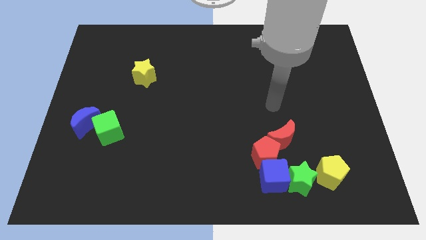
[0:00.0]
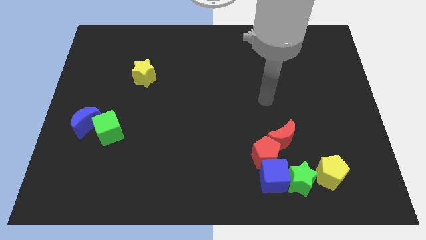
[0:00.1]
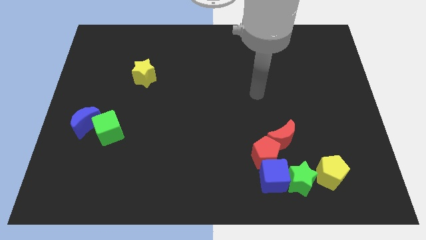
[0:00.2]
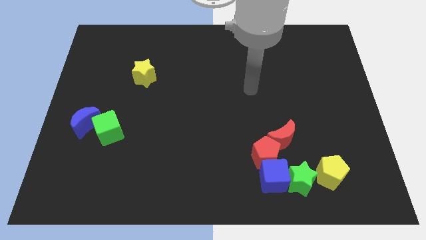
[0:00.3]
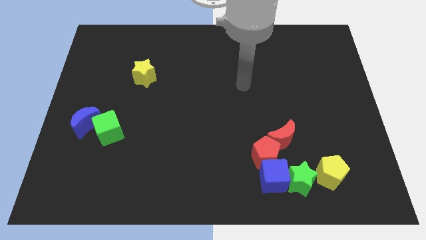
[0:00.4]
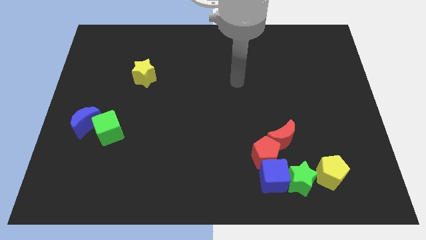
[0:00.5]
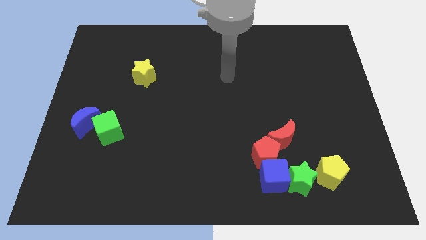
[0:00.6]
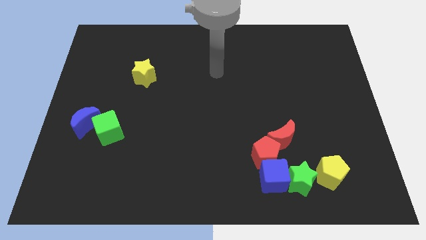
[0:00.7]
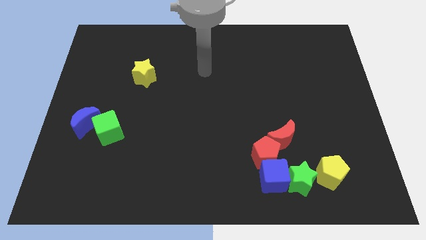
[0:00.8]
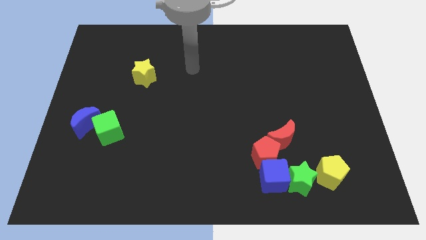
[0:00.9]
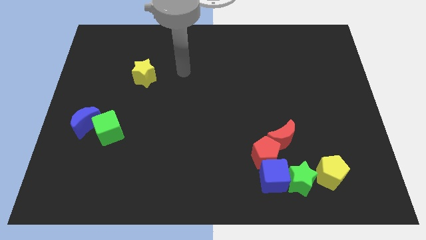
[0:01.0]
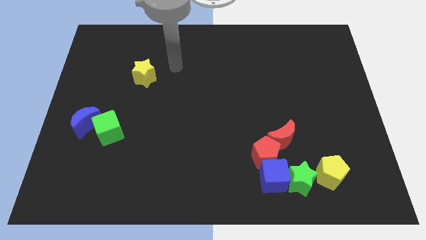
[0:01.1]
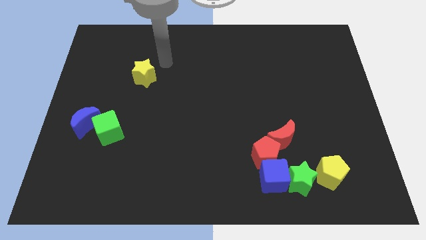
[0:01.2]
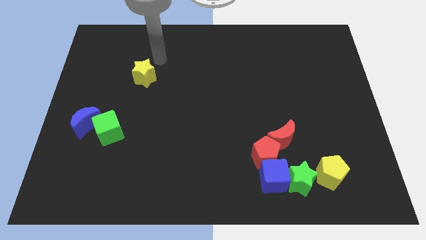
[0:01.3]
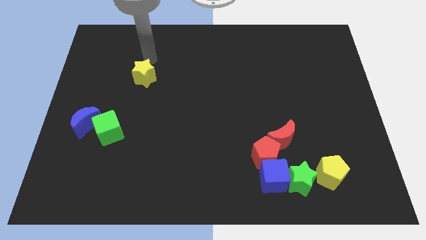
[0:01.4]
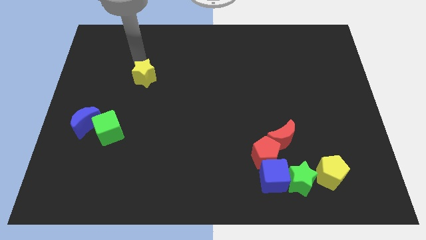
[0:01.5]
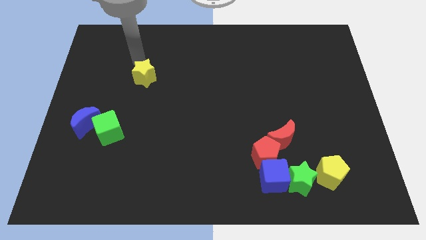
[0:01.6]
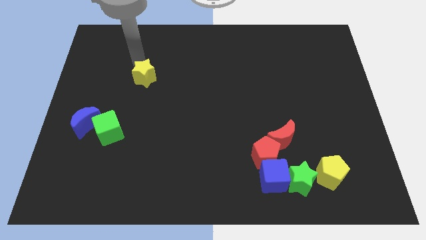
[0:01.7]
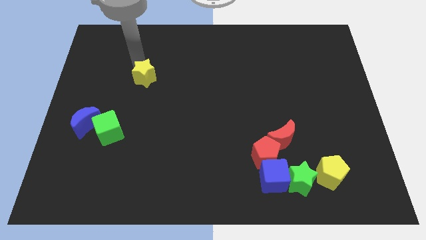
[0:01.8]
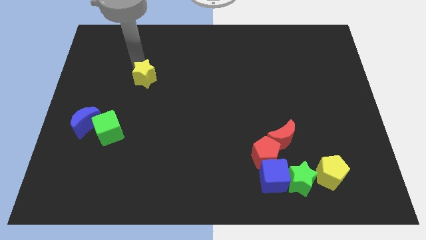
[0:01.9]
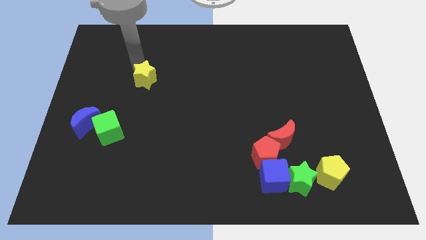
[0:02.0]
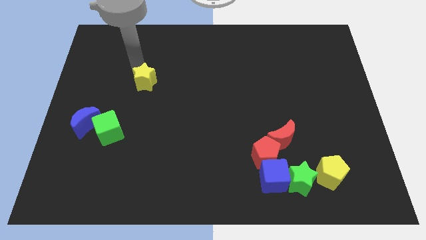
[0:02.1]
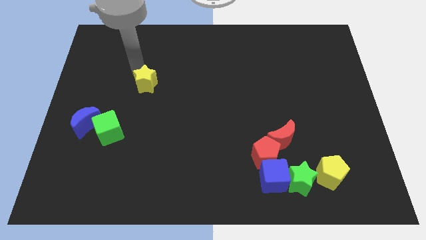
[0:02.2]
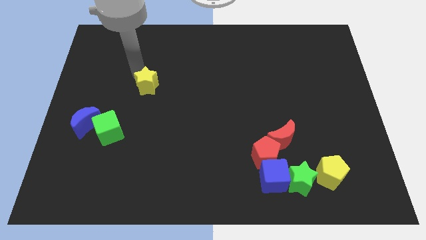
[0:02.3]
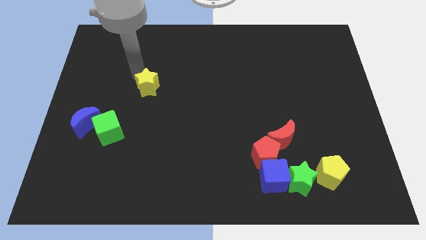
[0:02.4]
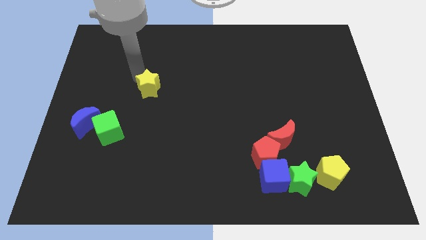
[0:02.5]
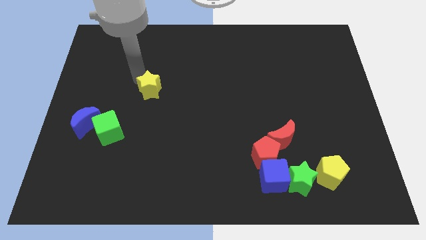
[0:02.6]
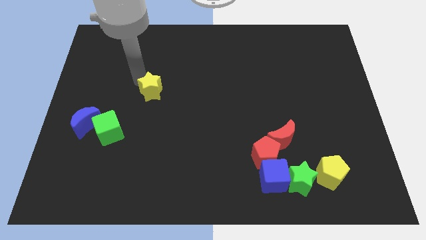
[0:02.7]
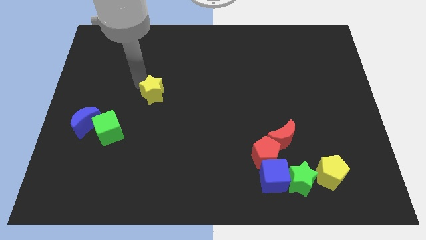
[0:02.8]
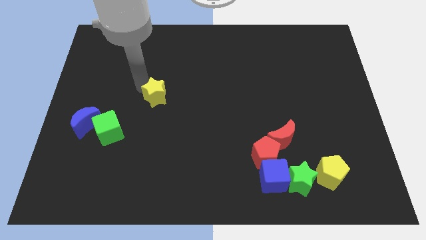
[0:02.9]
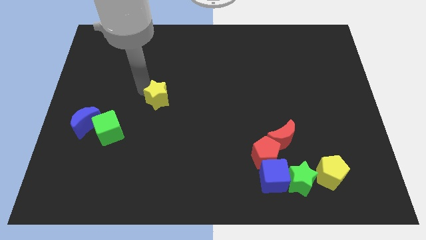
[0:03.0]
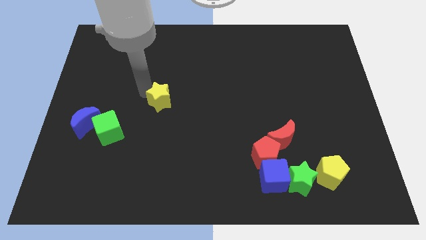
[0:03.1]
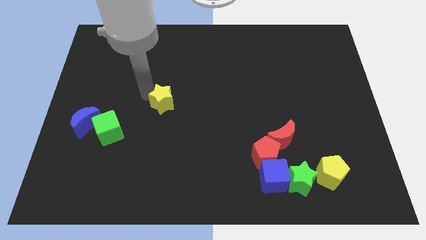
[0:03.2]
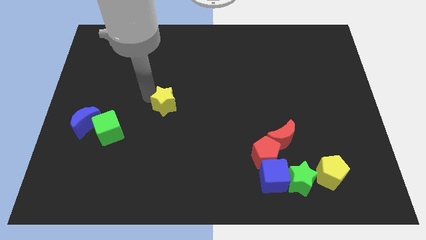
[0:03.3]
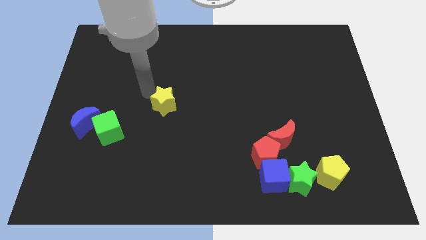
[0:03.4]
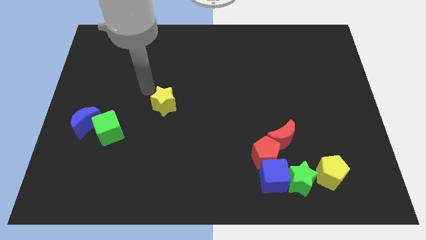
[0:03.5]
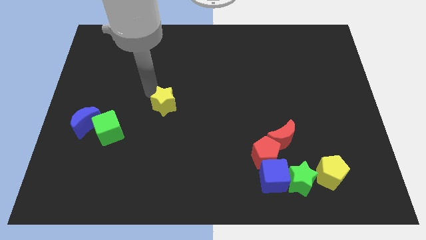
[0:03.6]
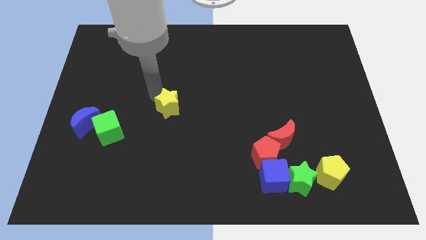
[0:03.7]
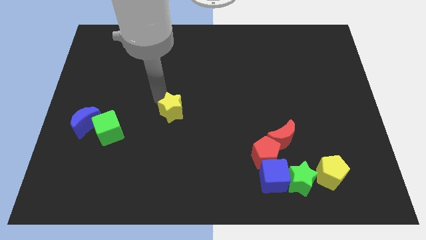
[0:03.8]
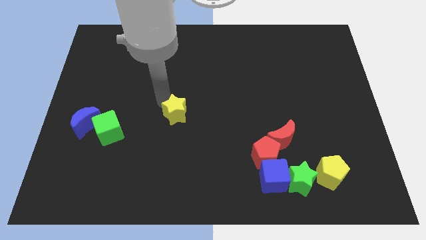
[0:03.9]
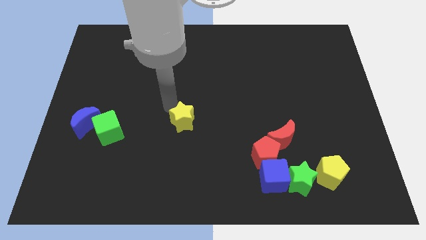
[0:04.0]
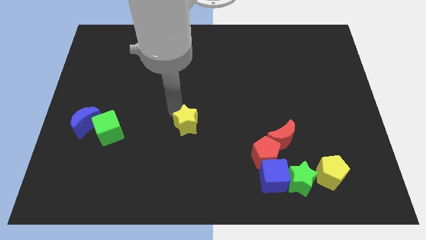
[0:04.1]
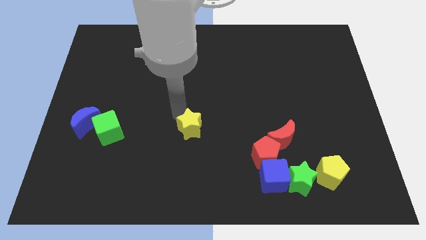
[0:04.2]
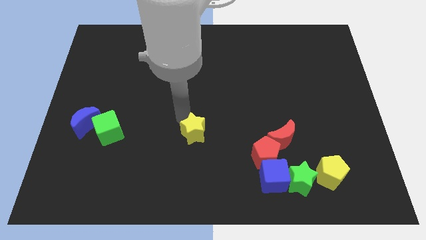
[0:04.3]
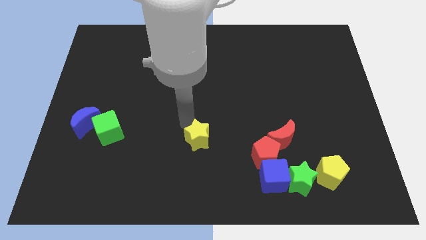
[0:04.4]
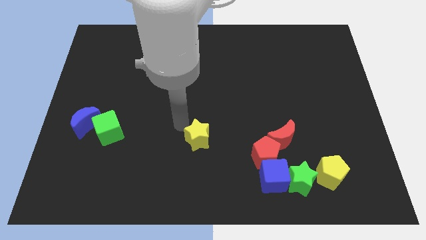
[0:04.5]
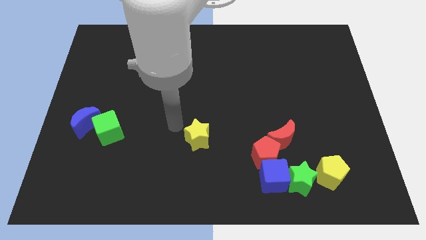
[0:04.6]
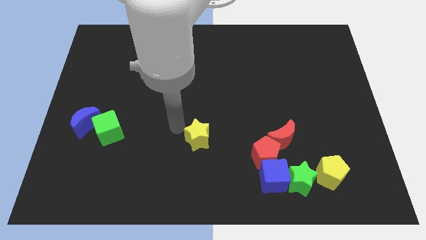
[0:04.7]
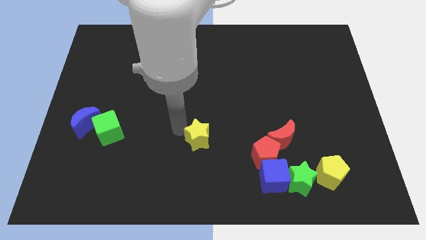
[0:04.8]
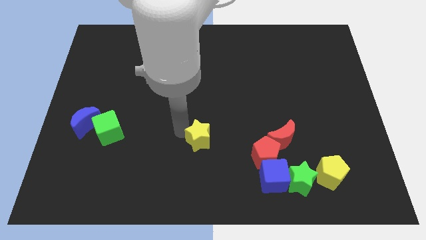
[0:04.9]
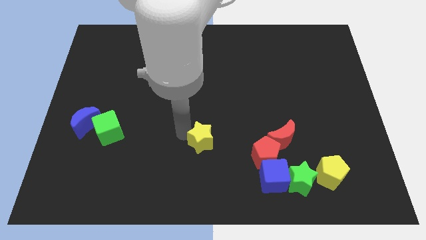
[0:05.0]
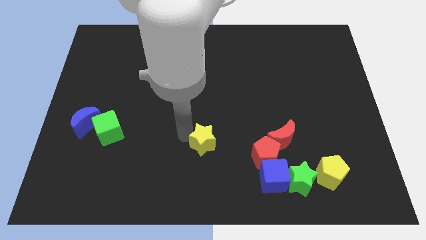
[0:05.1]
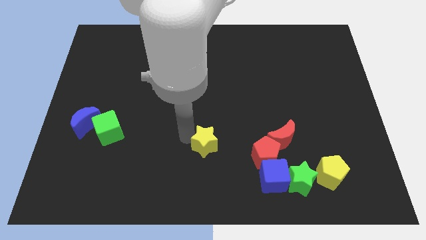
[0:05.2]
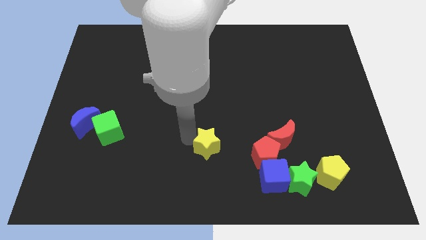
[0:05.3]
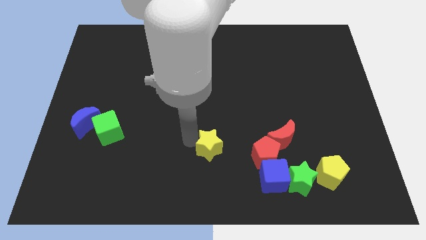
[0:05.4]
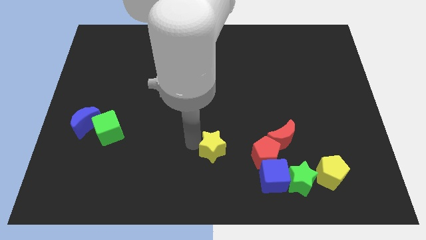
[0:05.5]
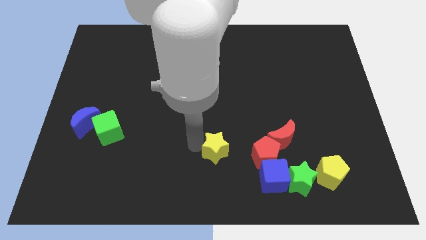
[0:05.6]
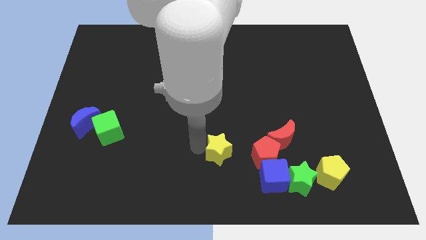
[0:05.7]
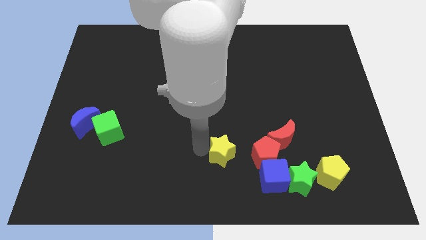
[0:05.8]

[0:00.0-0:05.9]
put the yellow star to the top left of the blue cube

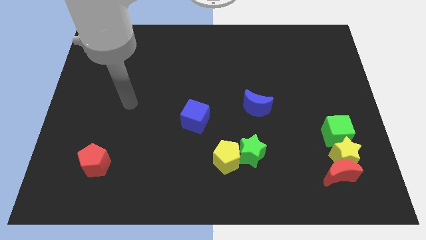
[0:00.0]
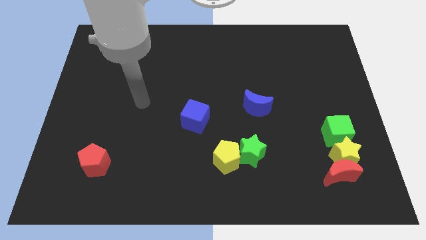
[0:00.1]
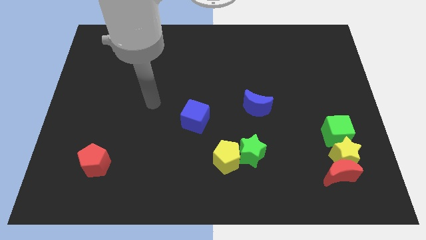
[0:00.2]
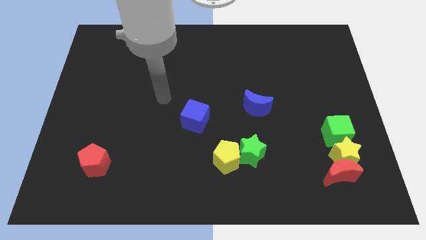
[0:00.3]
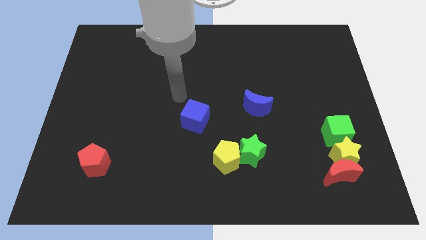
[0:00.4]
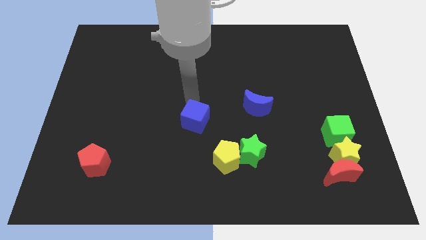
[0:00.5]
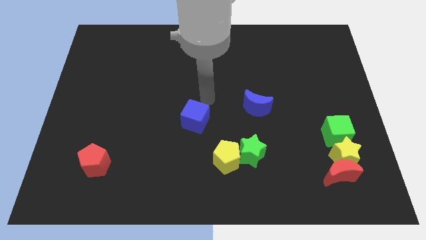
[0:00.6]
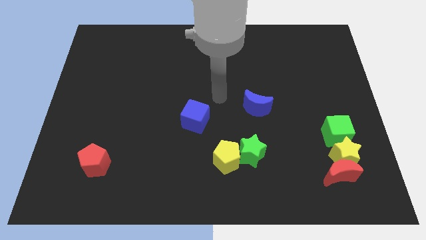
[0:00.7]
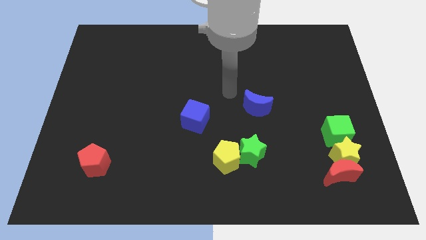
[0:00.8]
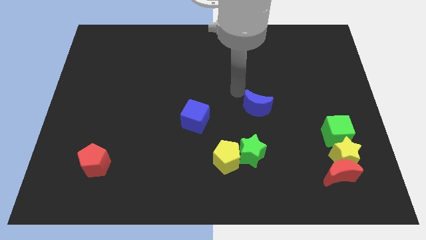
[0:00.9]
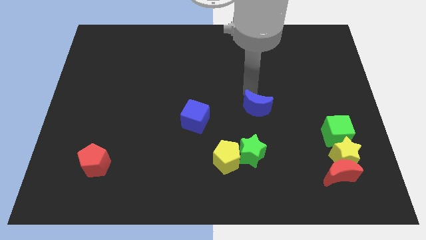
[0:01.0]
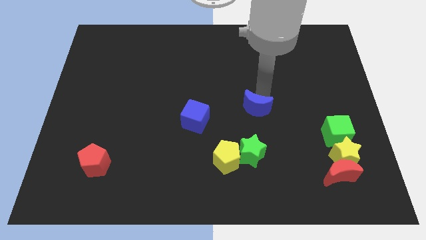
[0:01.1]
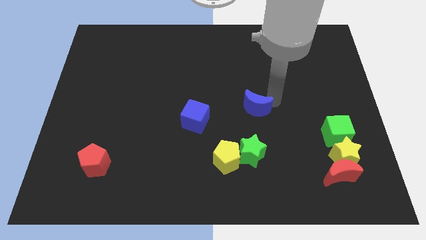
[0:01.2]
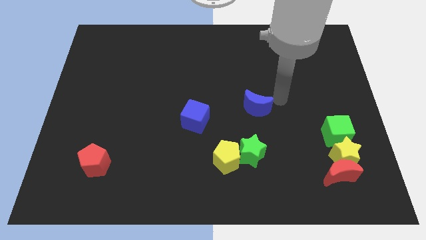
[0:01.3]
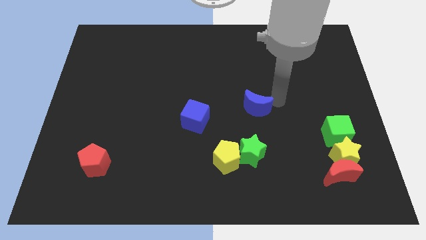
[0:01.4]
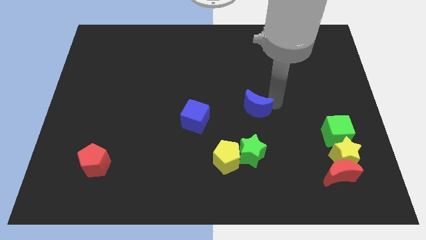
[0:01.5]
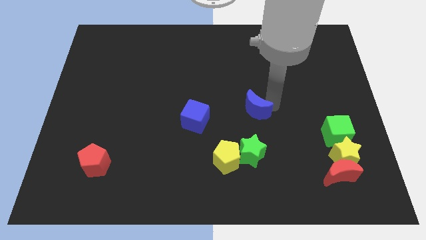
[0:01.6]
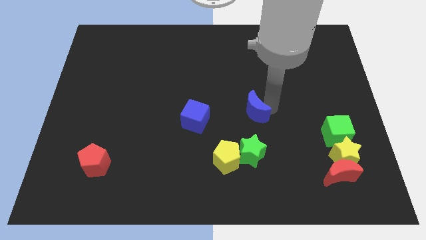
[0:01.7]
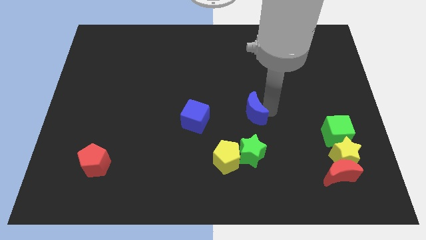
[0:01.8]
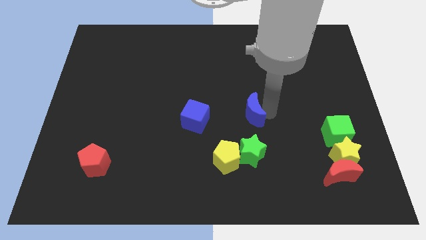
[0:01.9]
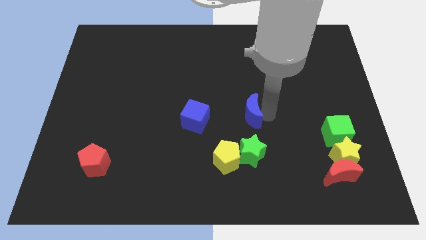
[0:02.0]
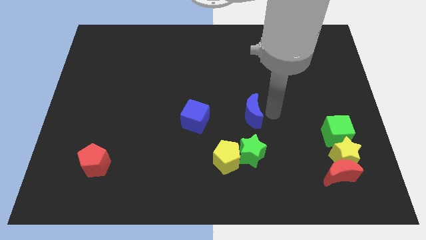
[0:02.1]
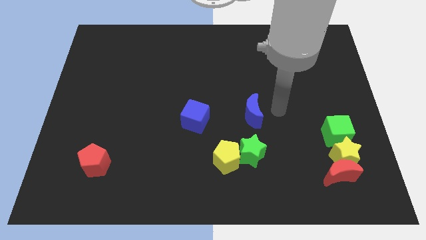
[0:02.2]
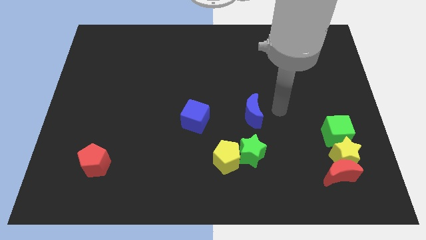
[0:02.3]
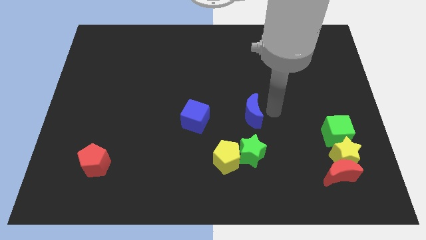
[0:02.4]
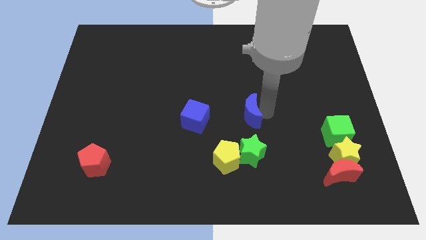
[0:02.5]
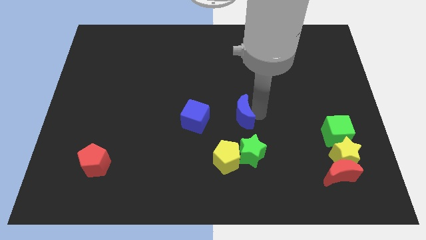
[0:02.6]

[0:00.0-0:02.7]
move the blue moon to the top side of the yellow pentagon

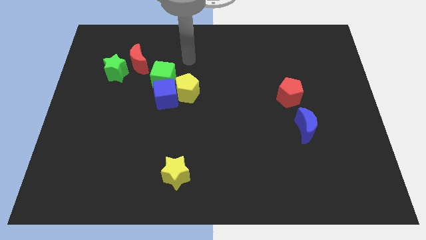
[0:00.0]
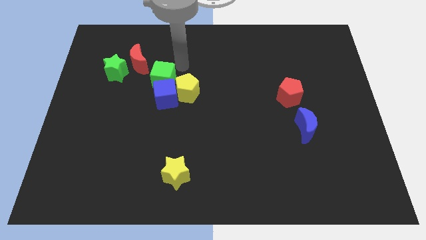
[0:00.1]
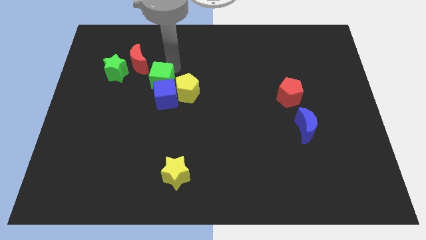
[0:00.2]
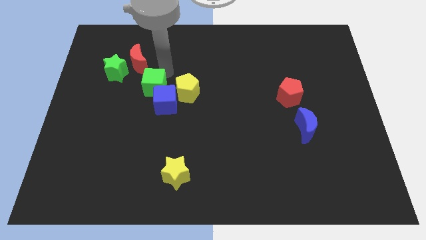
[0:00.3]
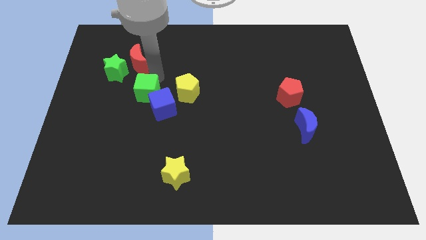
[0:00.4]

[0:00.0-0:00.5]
put the blue cube to the right side of the green cube
